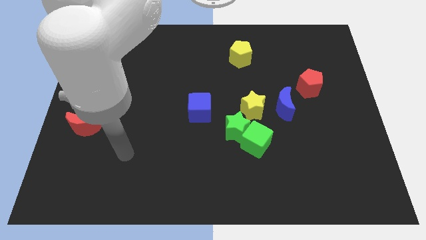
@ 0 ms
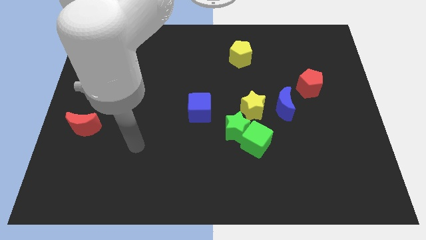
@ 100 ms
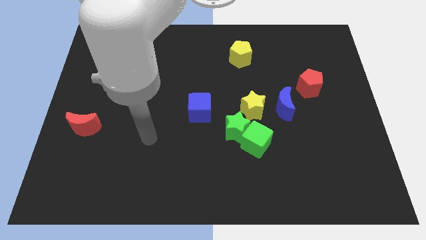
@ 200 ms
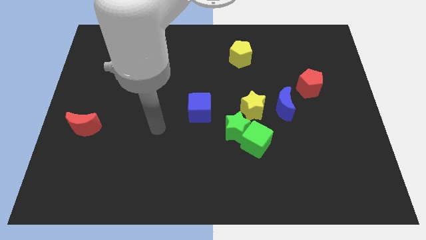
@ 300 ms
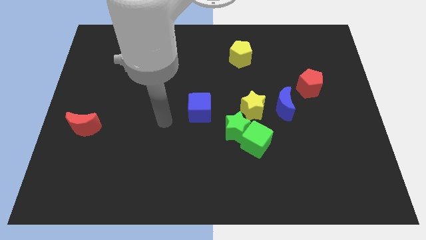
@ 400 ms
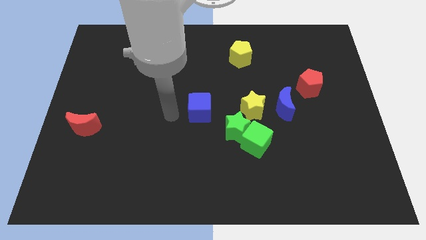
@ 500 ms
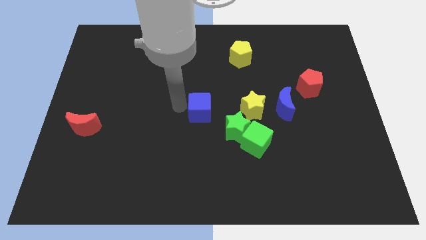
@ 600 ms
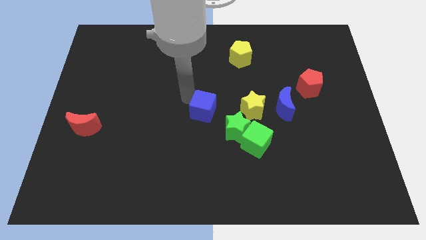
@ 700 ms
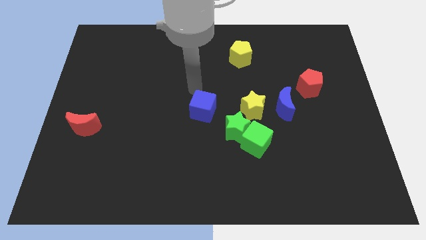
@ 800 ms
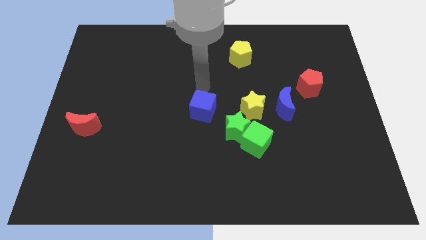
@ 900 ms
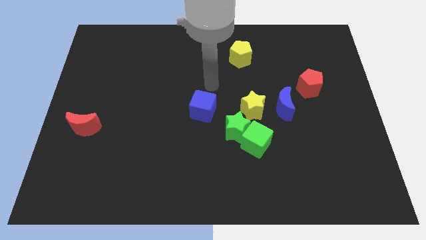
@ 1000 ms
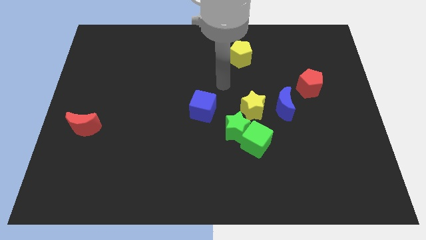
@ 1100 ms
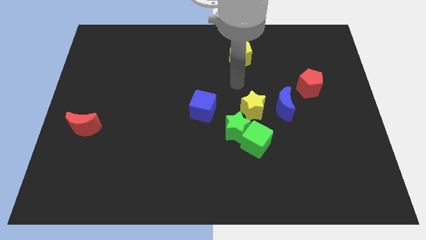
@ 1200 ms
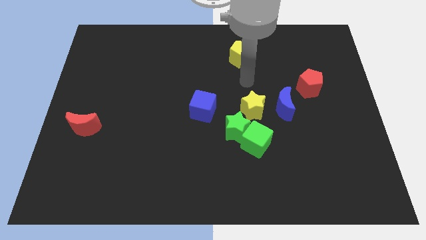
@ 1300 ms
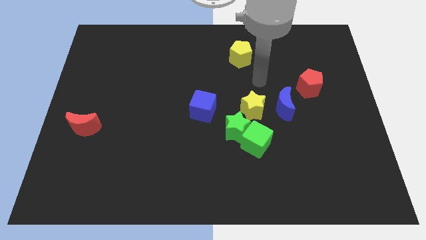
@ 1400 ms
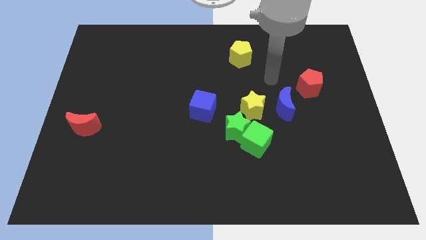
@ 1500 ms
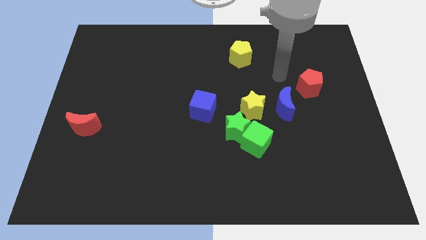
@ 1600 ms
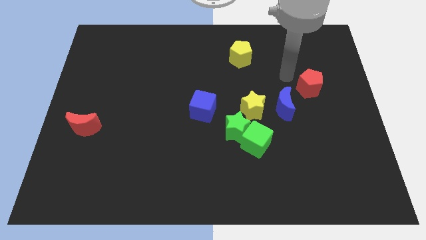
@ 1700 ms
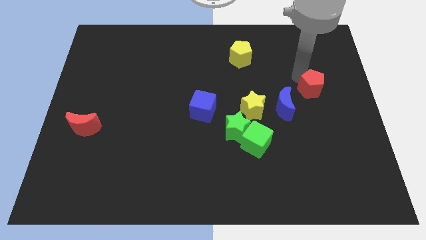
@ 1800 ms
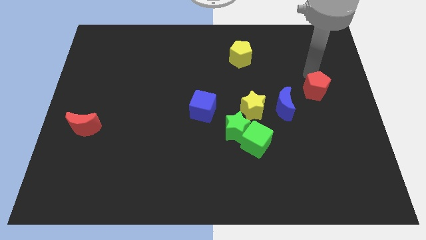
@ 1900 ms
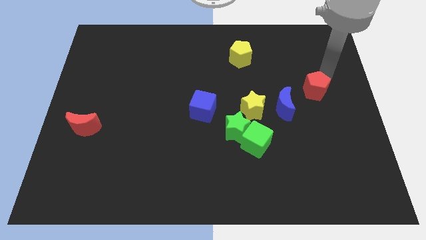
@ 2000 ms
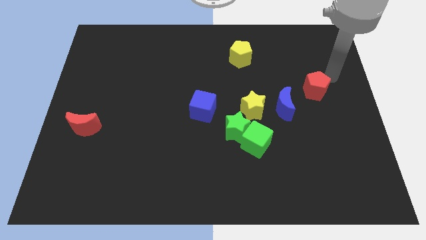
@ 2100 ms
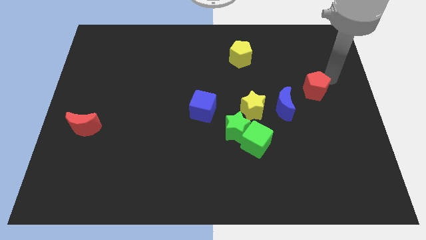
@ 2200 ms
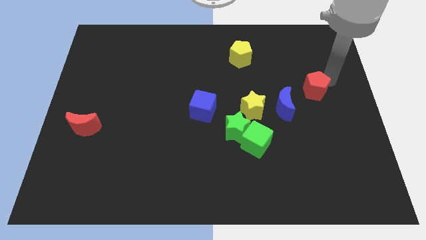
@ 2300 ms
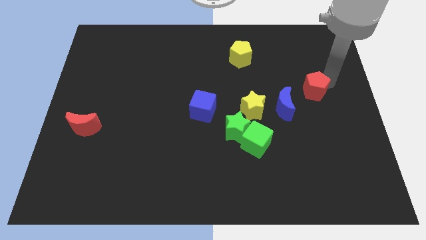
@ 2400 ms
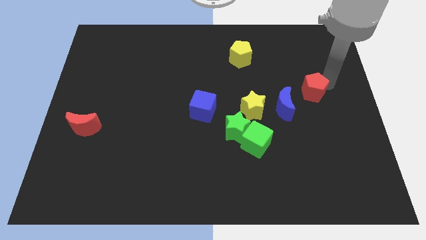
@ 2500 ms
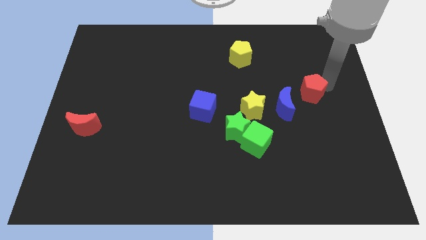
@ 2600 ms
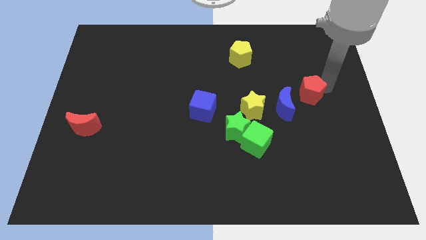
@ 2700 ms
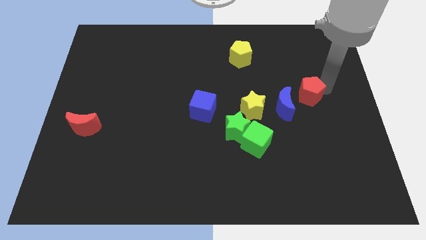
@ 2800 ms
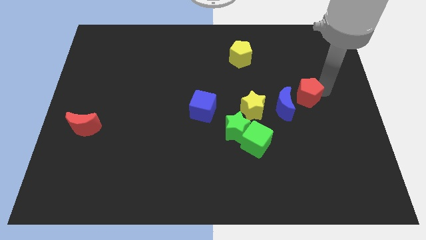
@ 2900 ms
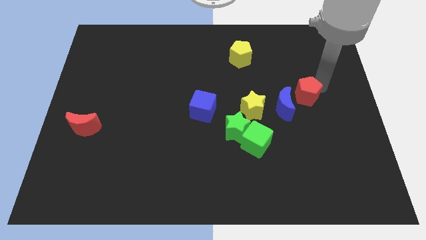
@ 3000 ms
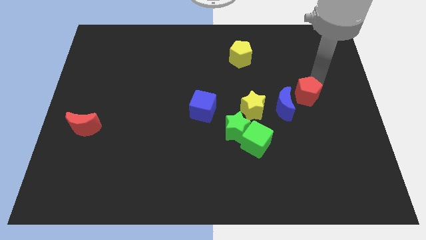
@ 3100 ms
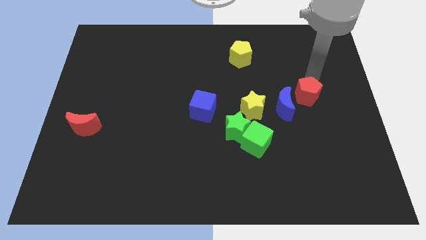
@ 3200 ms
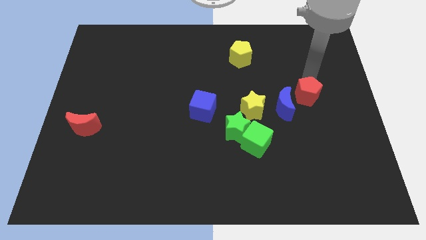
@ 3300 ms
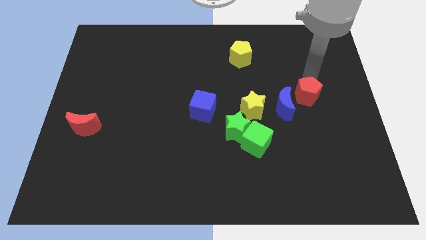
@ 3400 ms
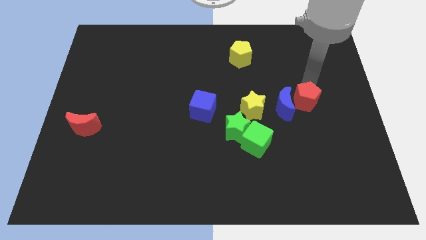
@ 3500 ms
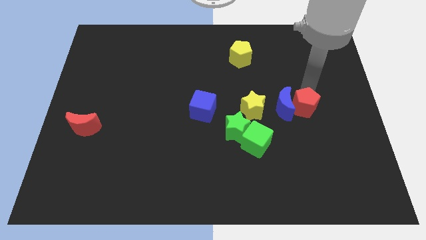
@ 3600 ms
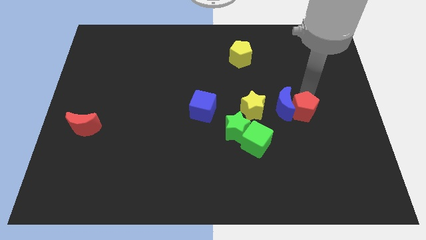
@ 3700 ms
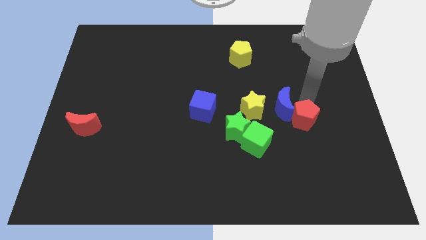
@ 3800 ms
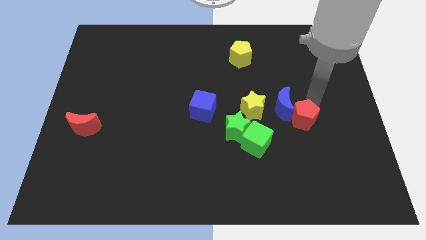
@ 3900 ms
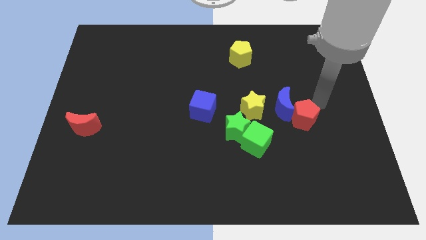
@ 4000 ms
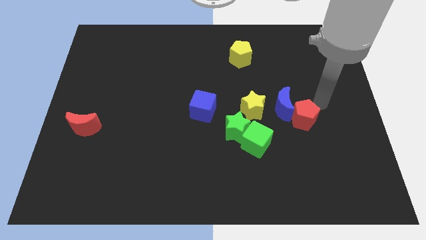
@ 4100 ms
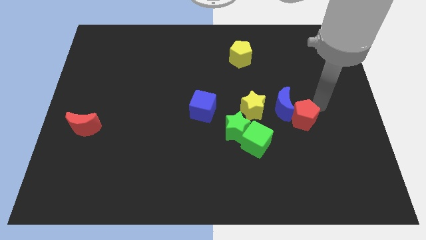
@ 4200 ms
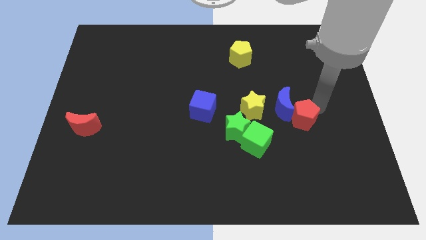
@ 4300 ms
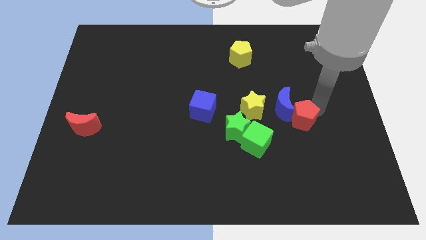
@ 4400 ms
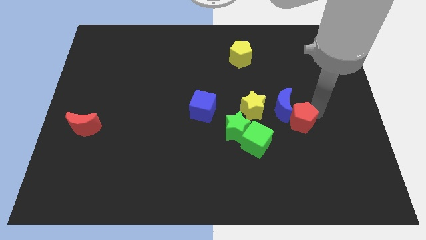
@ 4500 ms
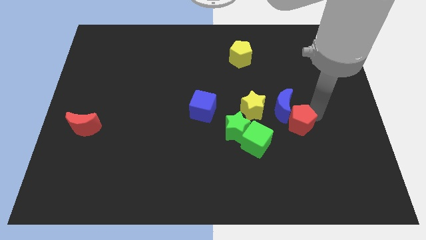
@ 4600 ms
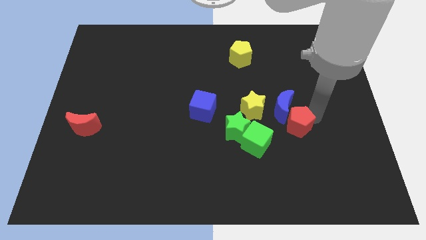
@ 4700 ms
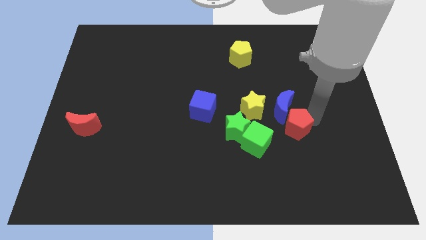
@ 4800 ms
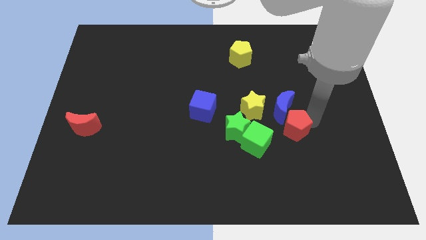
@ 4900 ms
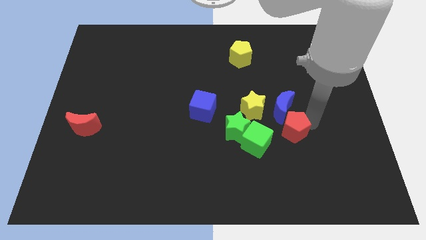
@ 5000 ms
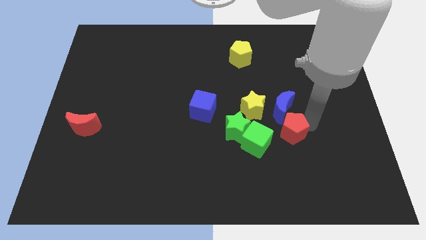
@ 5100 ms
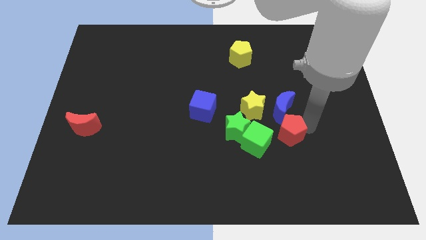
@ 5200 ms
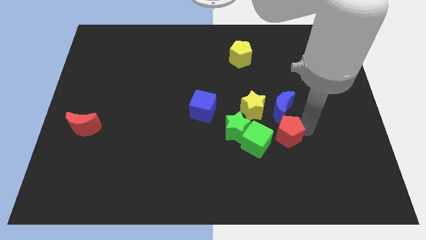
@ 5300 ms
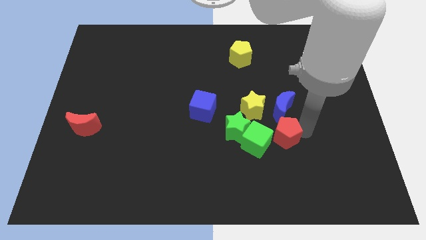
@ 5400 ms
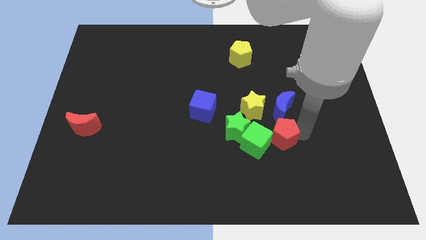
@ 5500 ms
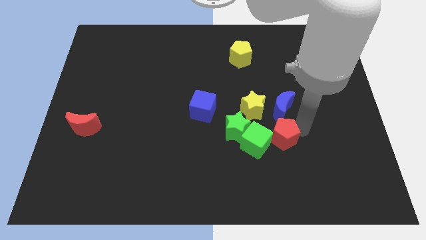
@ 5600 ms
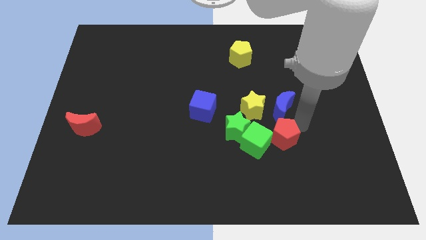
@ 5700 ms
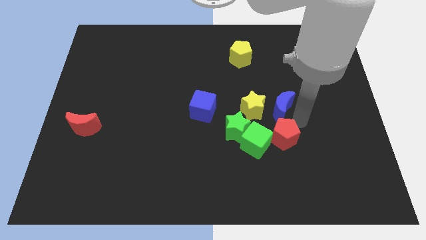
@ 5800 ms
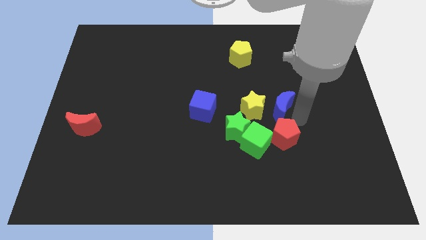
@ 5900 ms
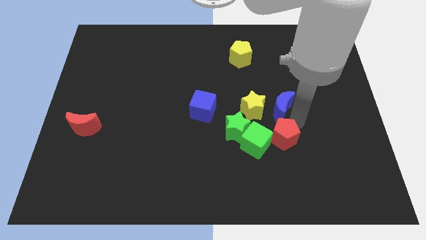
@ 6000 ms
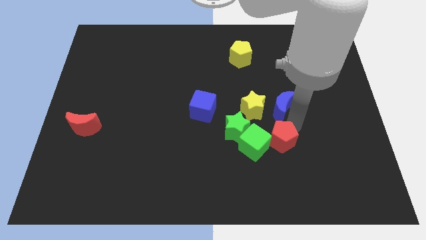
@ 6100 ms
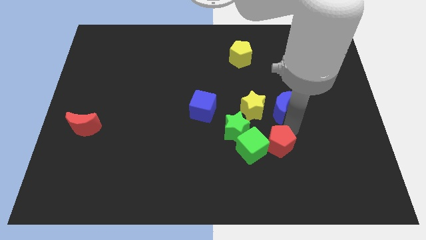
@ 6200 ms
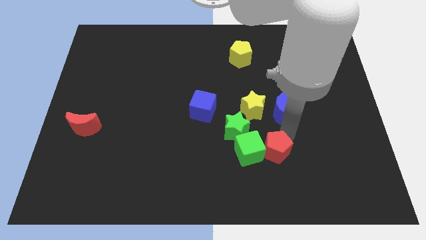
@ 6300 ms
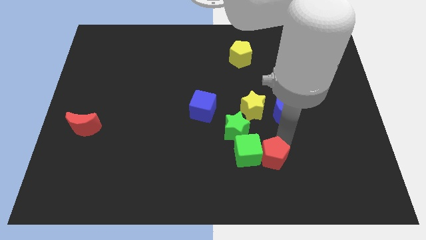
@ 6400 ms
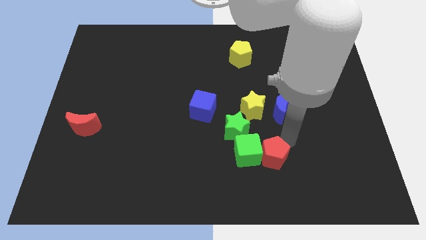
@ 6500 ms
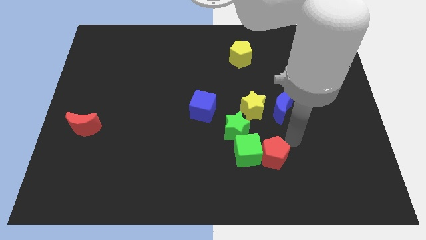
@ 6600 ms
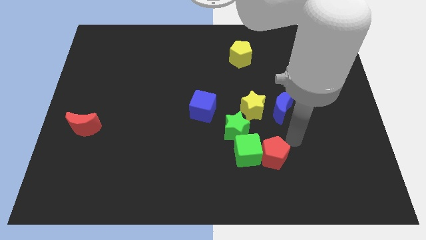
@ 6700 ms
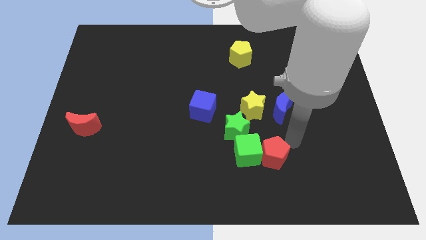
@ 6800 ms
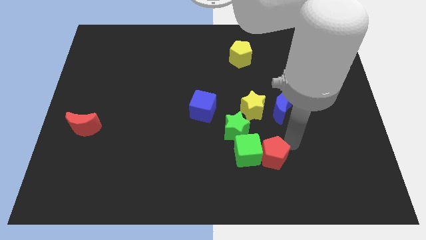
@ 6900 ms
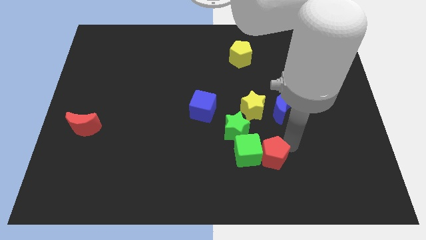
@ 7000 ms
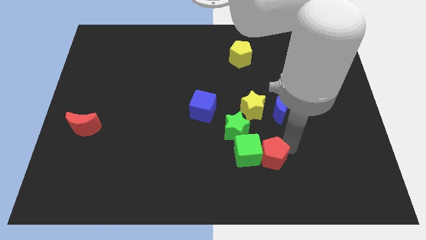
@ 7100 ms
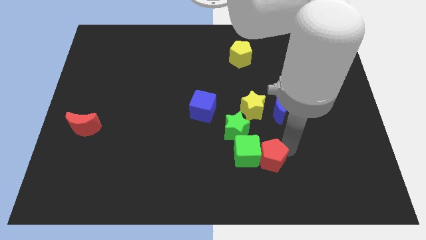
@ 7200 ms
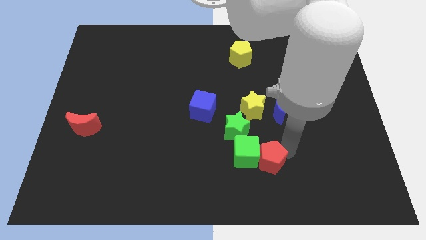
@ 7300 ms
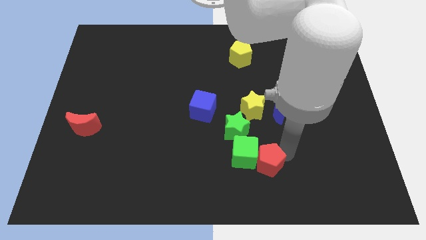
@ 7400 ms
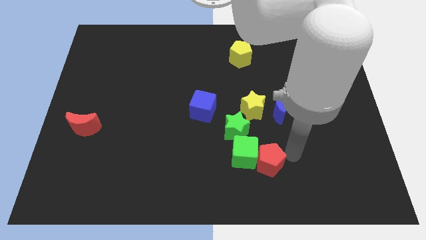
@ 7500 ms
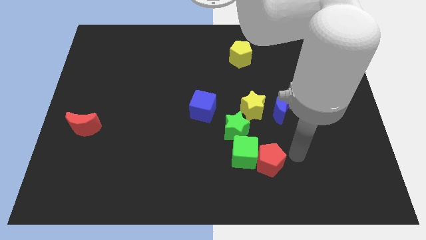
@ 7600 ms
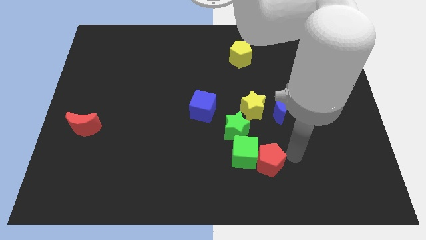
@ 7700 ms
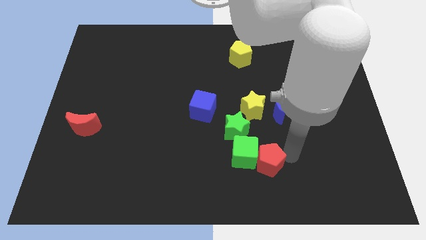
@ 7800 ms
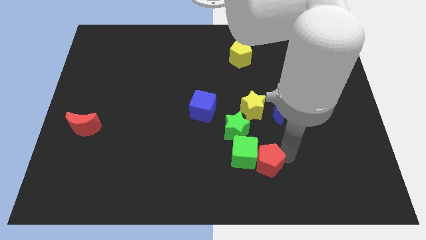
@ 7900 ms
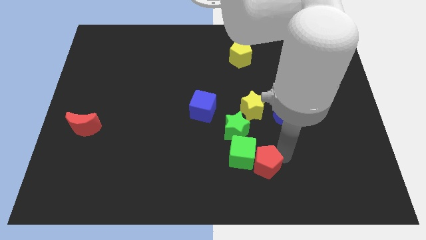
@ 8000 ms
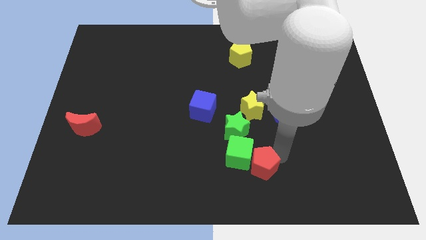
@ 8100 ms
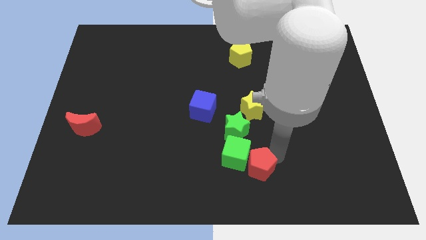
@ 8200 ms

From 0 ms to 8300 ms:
move the red pentagon to the bottom
